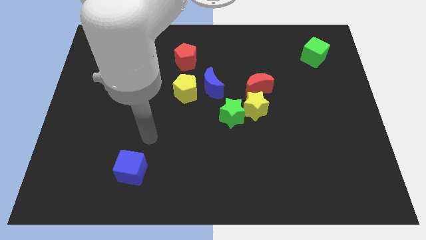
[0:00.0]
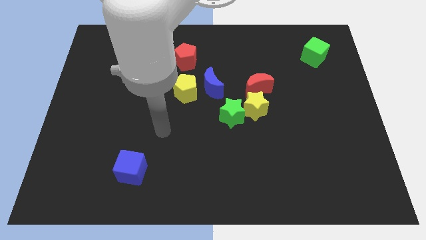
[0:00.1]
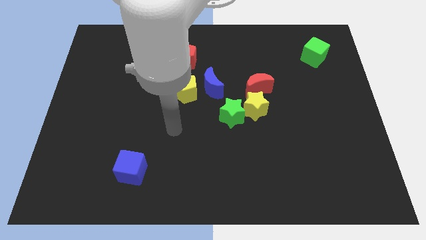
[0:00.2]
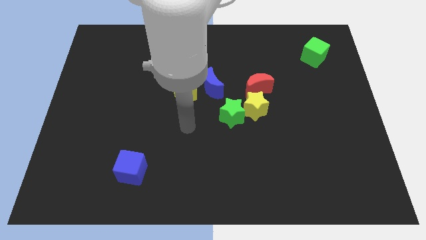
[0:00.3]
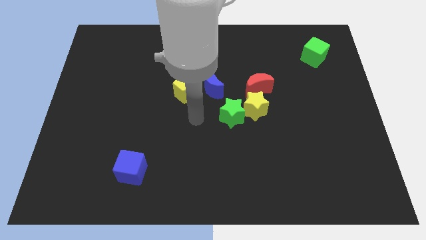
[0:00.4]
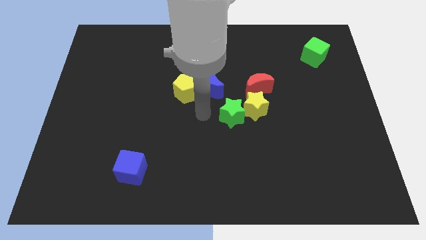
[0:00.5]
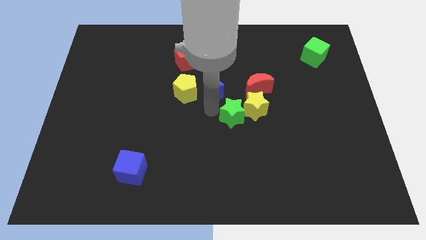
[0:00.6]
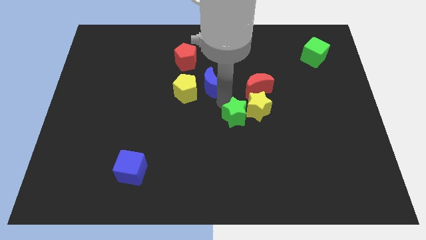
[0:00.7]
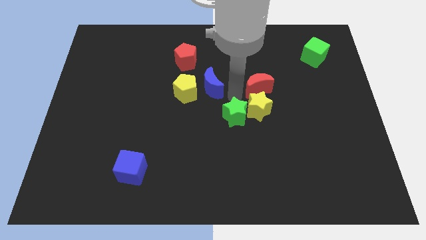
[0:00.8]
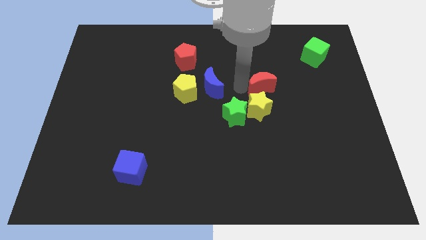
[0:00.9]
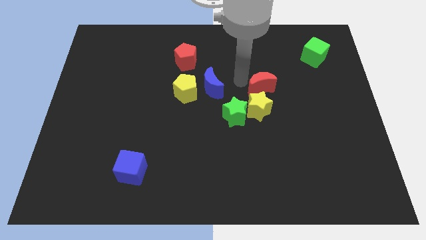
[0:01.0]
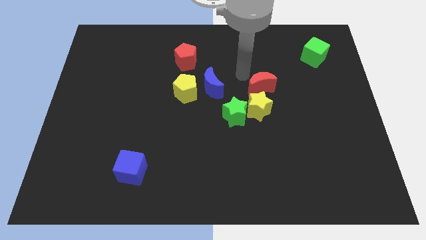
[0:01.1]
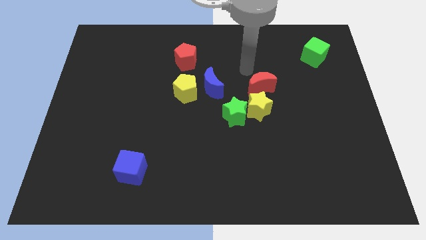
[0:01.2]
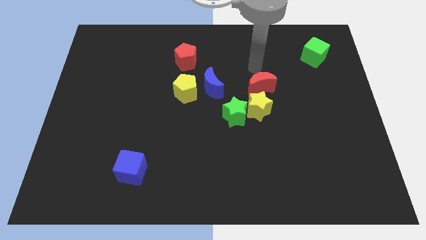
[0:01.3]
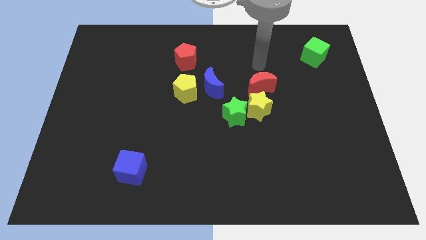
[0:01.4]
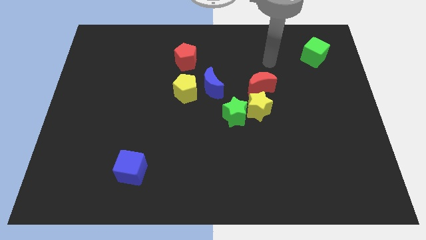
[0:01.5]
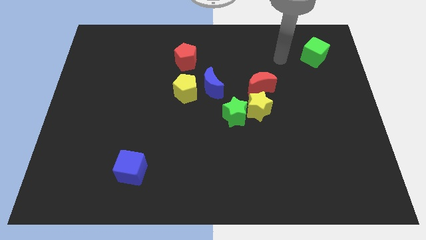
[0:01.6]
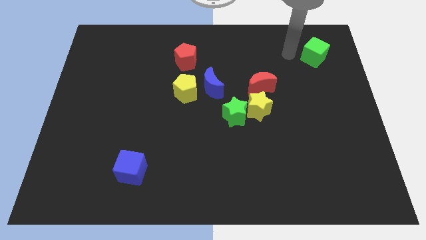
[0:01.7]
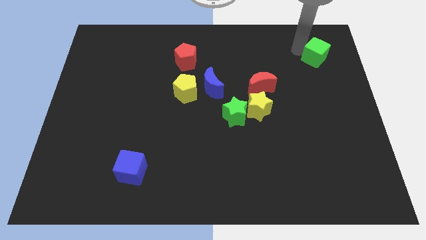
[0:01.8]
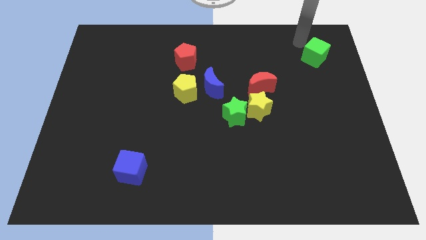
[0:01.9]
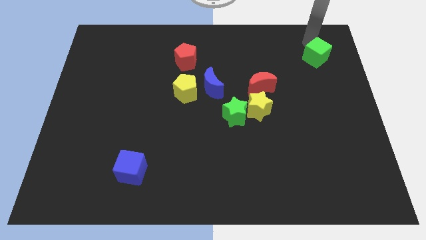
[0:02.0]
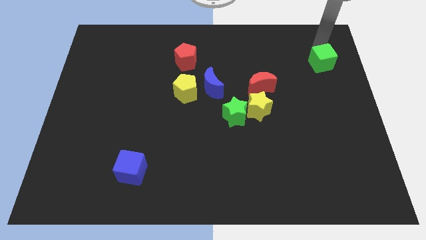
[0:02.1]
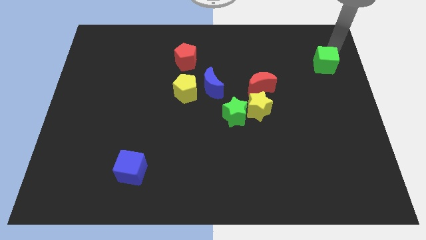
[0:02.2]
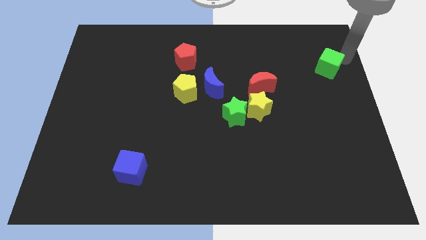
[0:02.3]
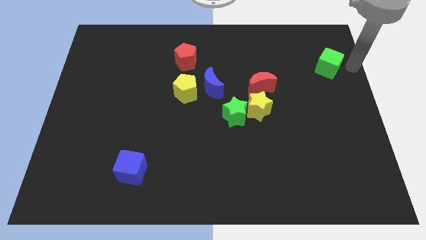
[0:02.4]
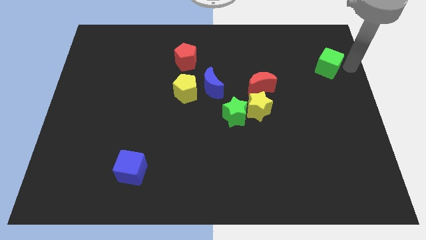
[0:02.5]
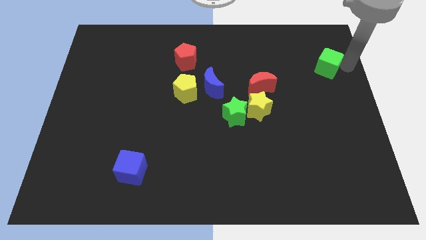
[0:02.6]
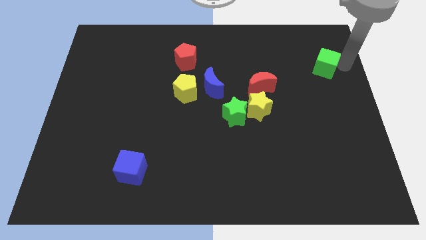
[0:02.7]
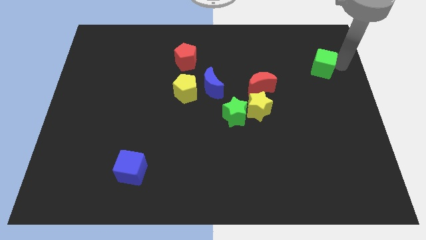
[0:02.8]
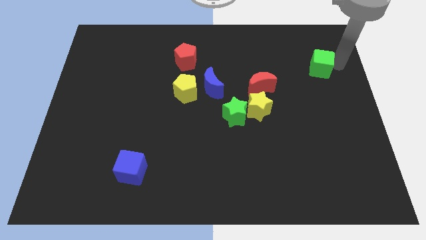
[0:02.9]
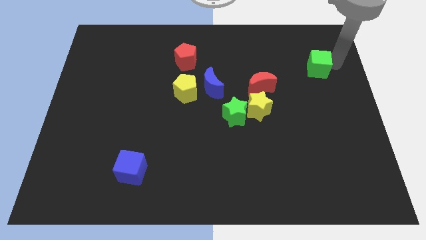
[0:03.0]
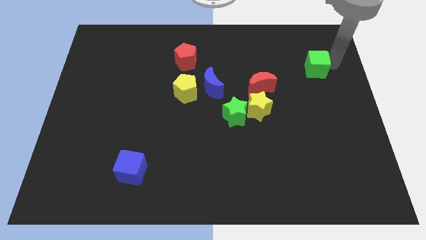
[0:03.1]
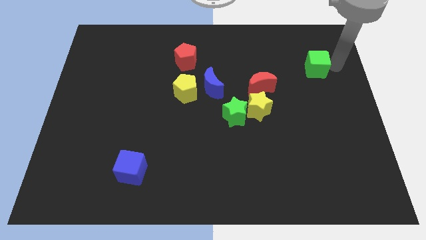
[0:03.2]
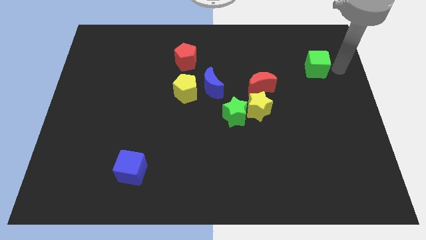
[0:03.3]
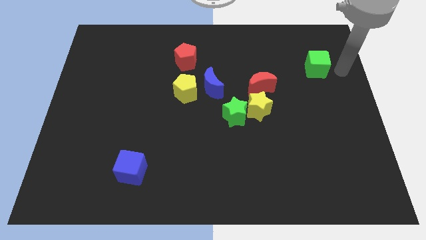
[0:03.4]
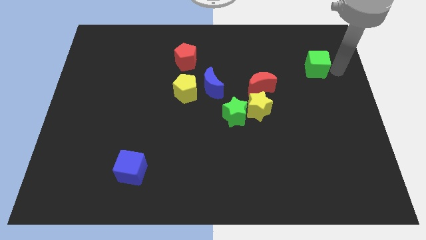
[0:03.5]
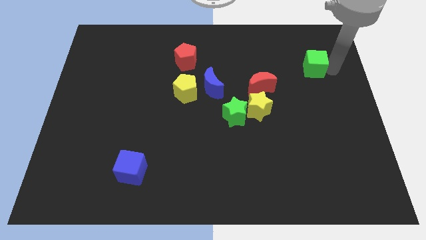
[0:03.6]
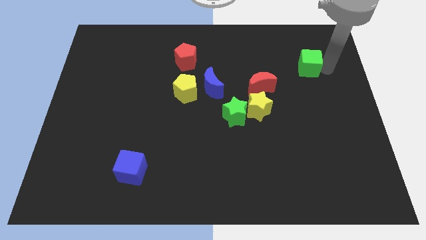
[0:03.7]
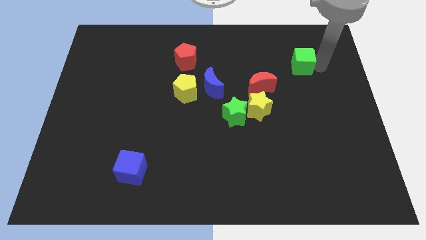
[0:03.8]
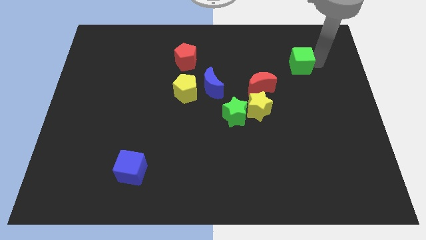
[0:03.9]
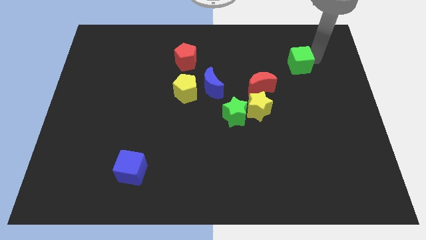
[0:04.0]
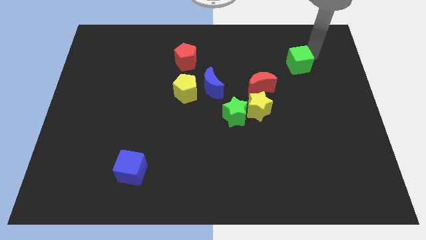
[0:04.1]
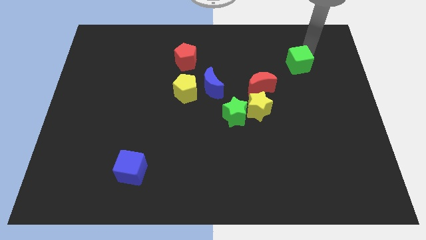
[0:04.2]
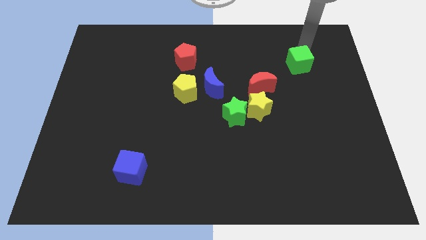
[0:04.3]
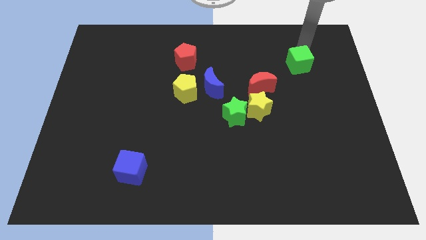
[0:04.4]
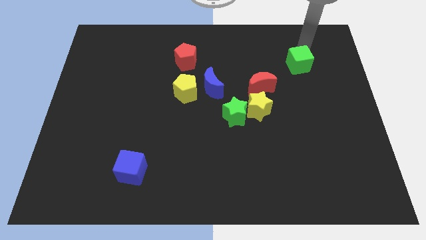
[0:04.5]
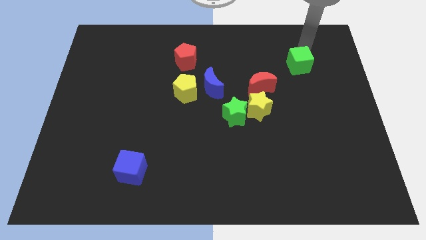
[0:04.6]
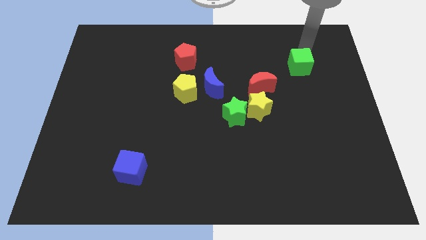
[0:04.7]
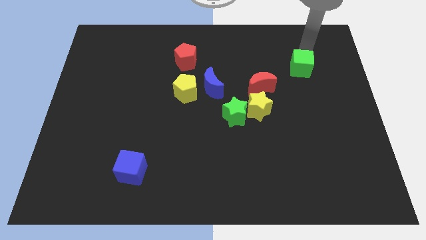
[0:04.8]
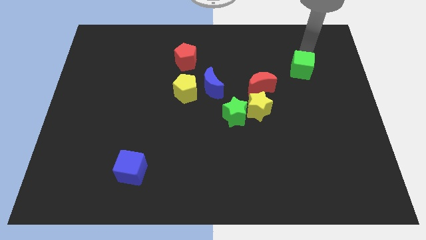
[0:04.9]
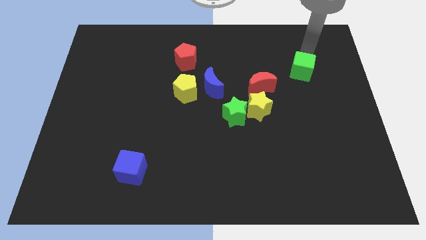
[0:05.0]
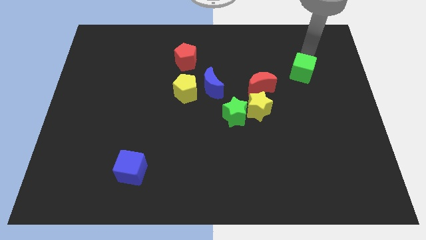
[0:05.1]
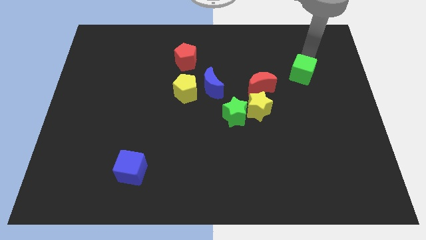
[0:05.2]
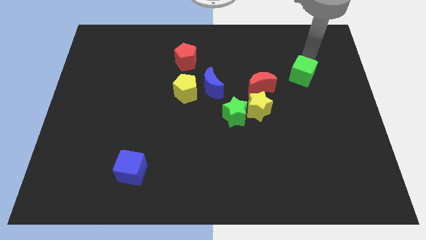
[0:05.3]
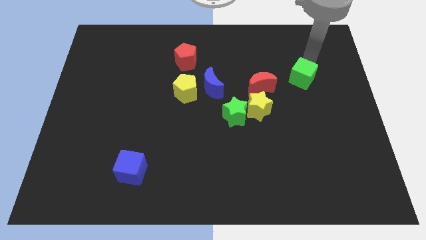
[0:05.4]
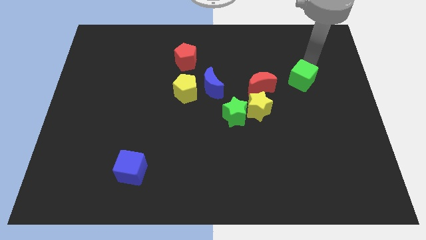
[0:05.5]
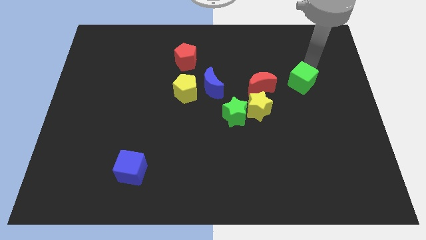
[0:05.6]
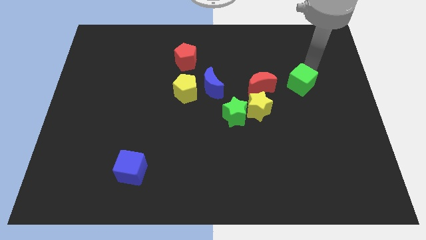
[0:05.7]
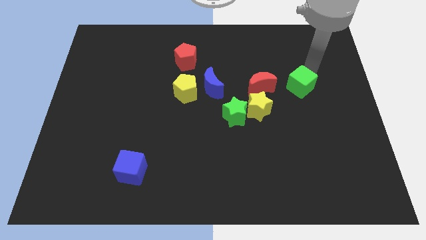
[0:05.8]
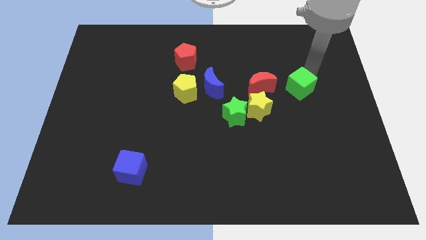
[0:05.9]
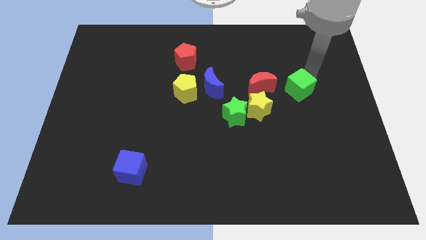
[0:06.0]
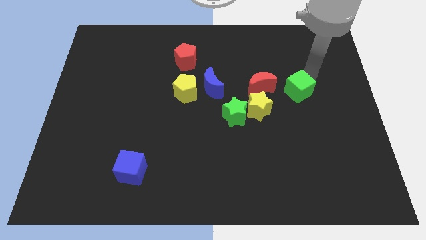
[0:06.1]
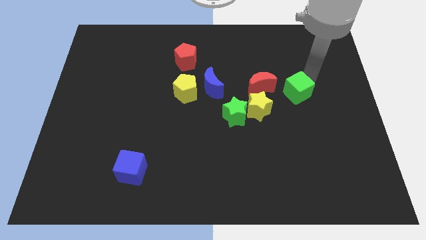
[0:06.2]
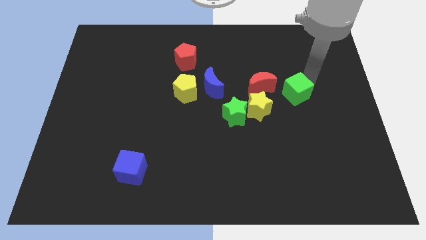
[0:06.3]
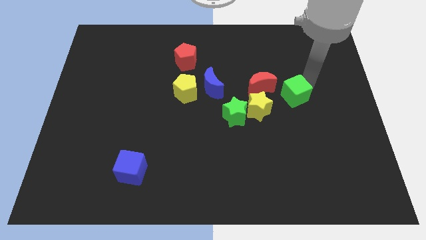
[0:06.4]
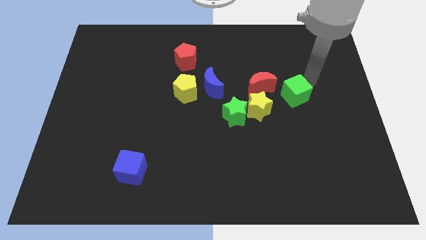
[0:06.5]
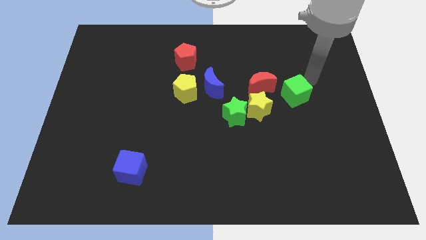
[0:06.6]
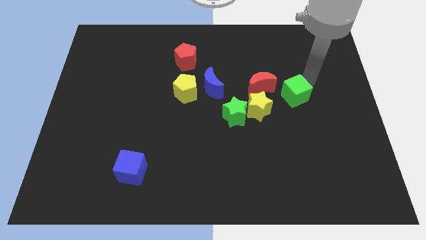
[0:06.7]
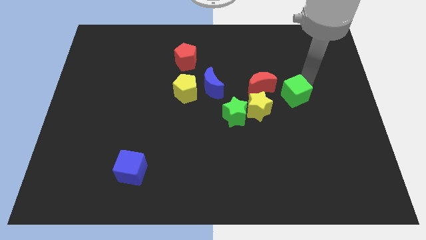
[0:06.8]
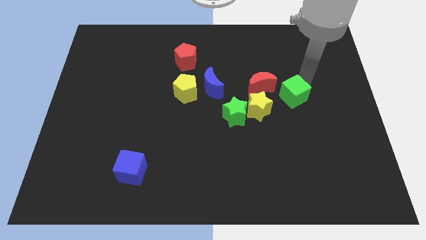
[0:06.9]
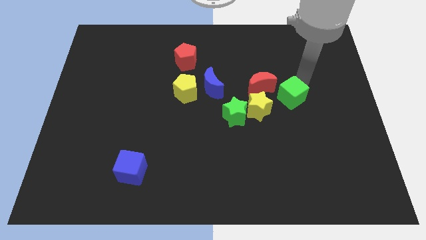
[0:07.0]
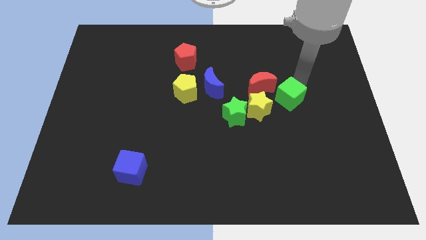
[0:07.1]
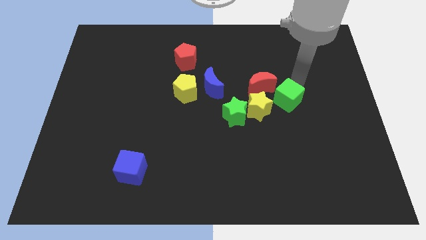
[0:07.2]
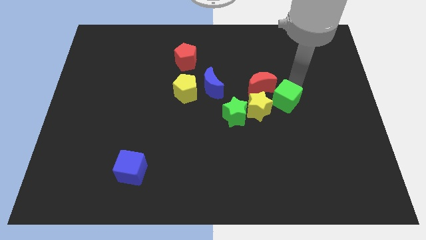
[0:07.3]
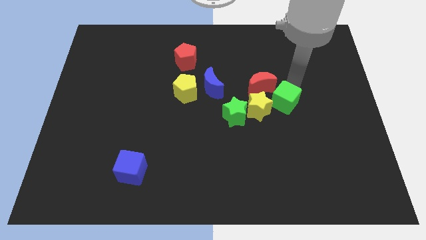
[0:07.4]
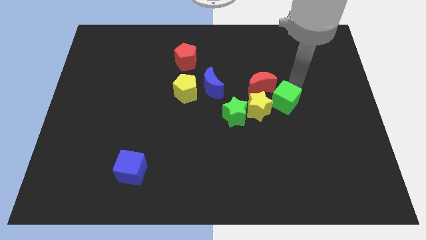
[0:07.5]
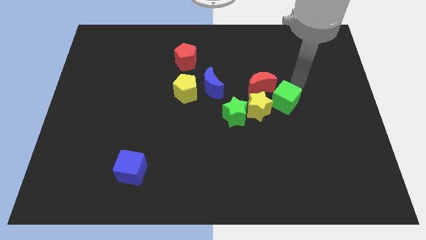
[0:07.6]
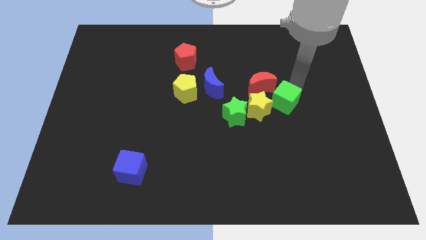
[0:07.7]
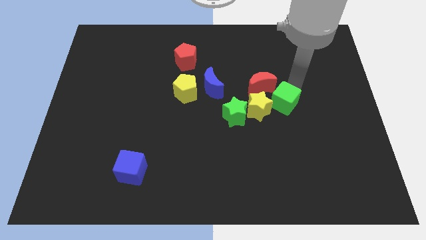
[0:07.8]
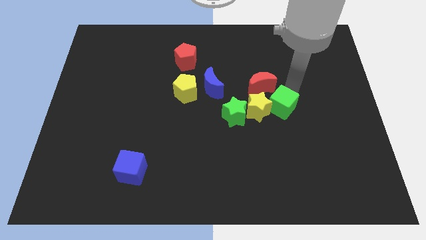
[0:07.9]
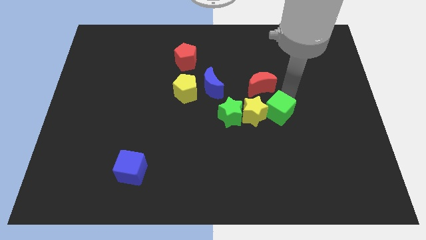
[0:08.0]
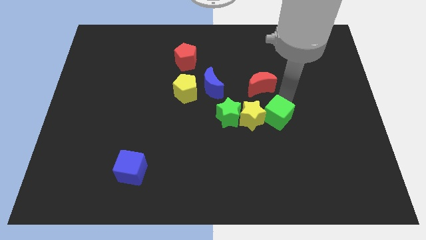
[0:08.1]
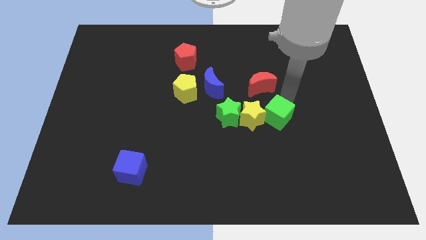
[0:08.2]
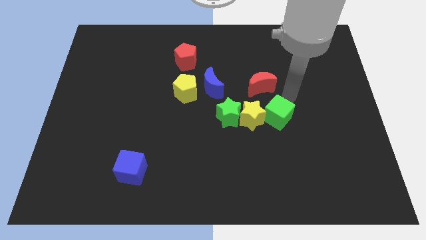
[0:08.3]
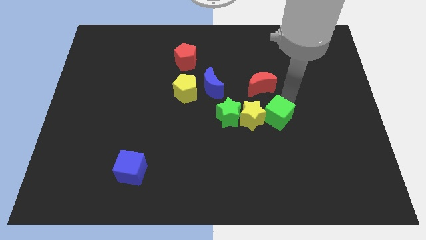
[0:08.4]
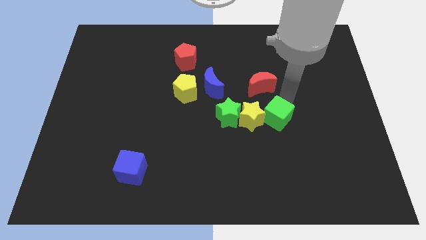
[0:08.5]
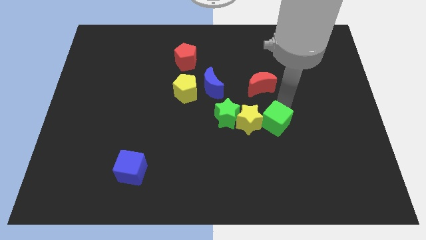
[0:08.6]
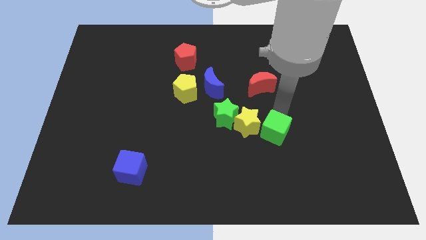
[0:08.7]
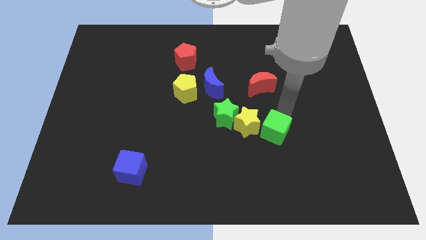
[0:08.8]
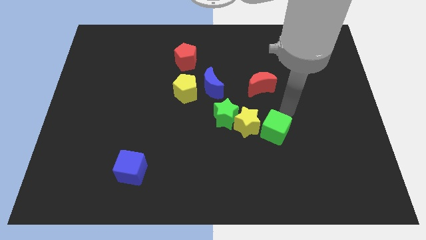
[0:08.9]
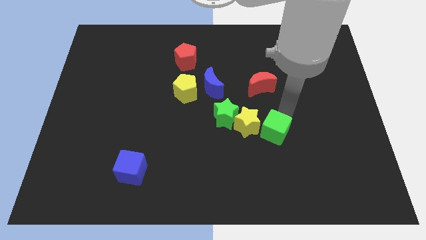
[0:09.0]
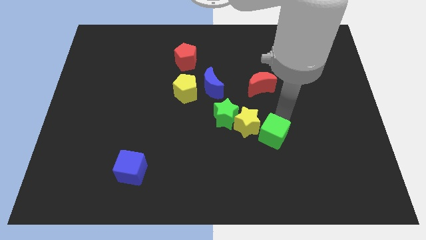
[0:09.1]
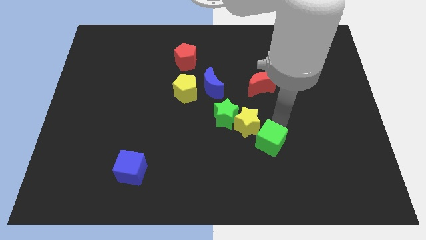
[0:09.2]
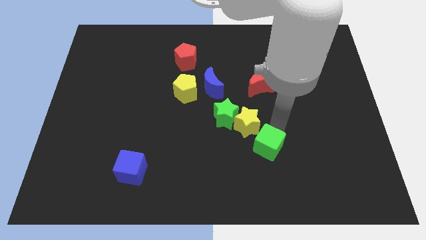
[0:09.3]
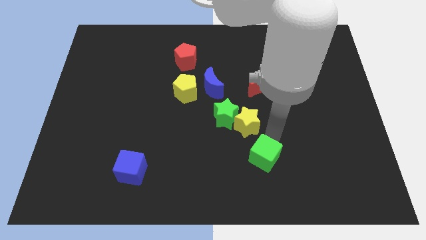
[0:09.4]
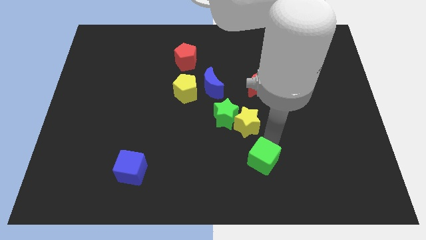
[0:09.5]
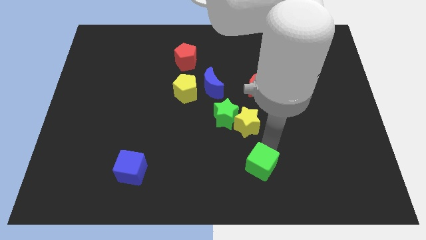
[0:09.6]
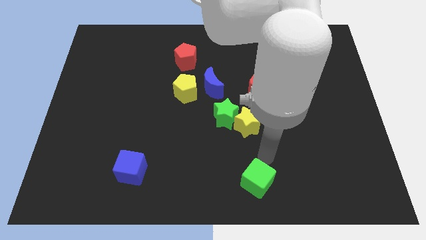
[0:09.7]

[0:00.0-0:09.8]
push the green cube to the bottom
